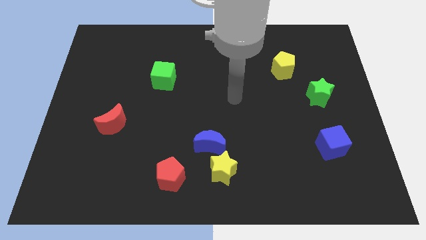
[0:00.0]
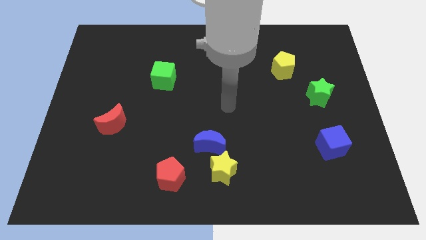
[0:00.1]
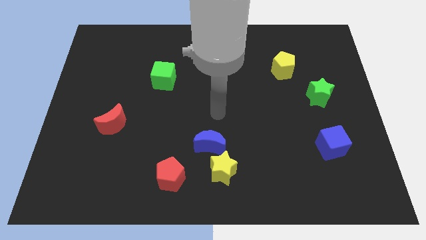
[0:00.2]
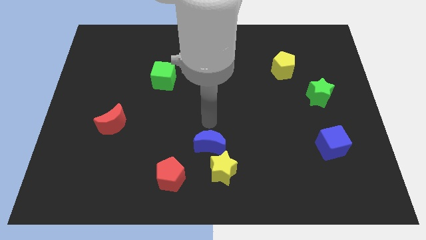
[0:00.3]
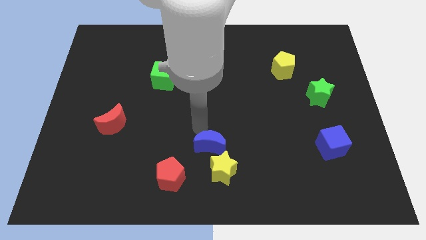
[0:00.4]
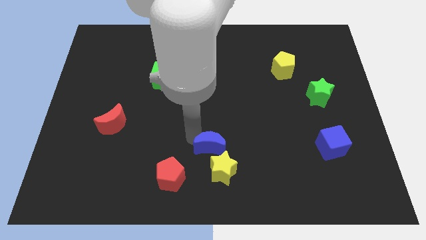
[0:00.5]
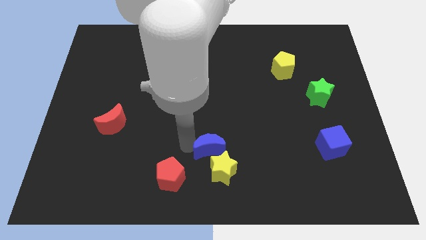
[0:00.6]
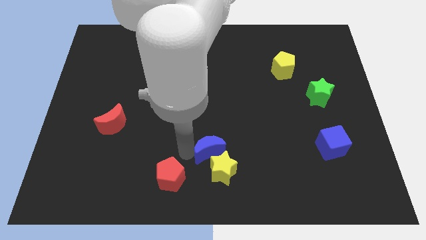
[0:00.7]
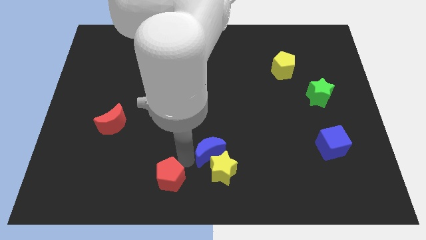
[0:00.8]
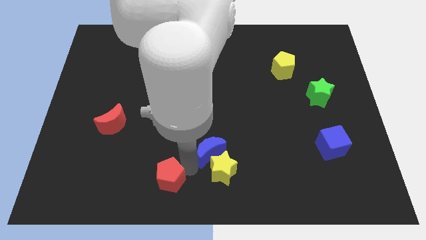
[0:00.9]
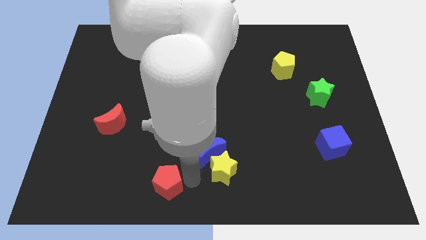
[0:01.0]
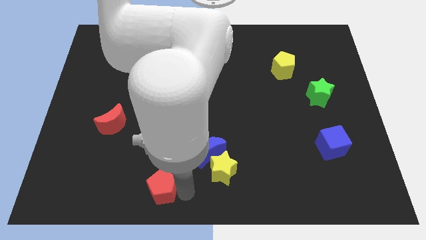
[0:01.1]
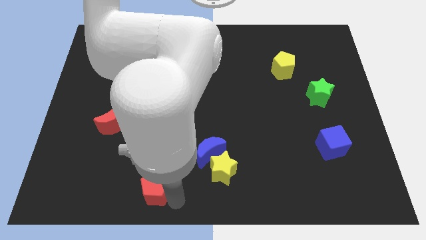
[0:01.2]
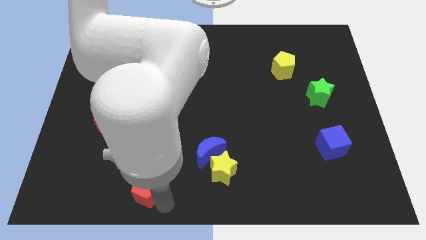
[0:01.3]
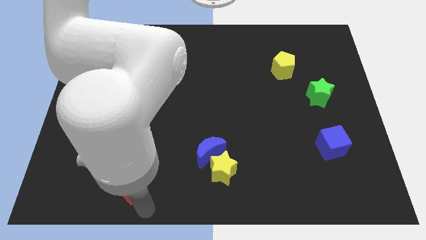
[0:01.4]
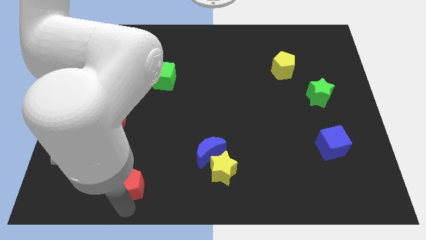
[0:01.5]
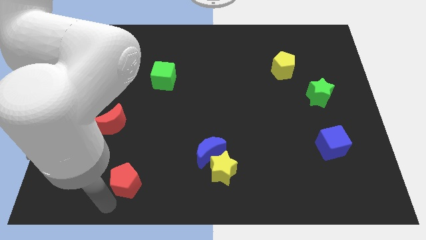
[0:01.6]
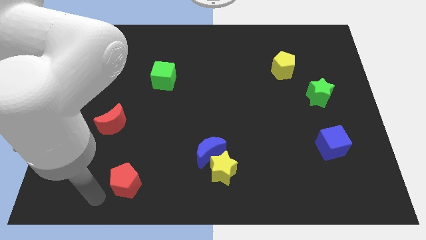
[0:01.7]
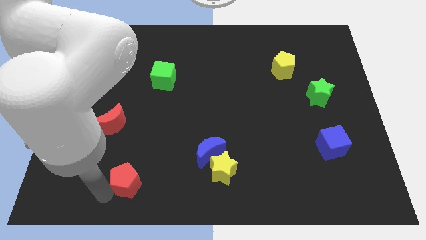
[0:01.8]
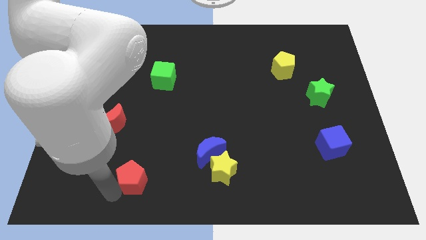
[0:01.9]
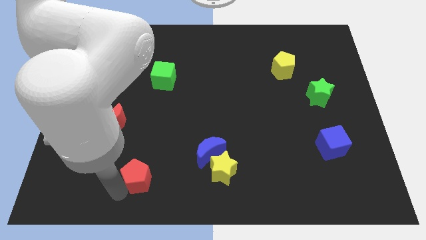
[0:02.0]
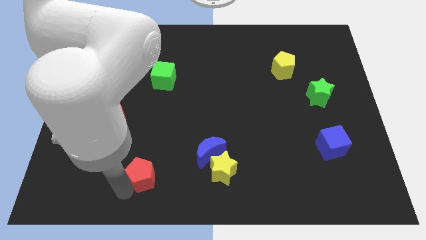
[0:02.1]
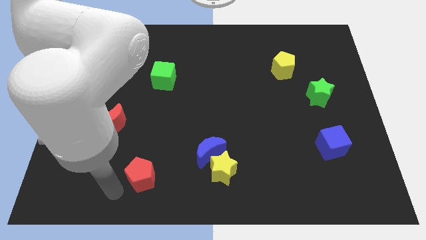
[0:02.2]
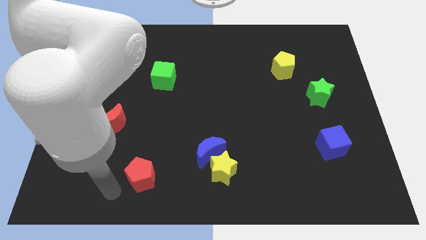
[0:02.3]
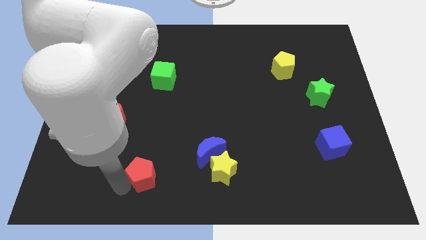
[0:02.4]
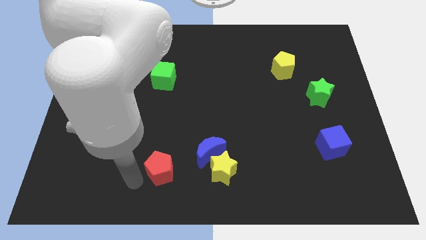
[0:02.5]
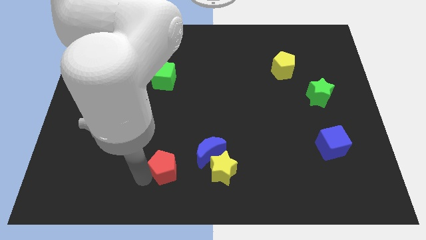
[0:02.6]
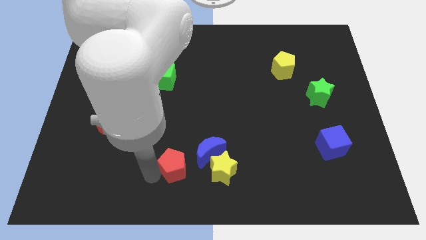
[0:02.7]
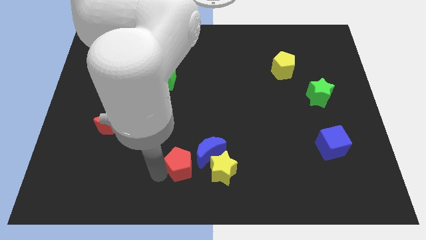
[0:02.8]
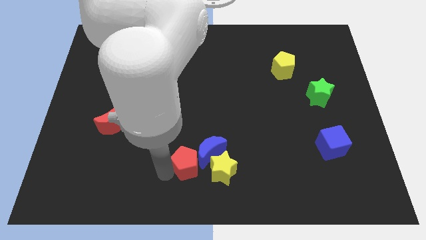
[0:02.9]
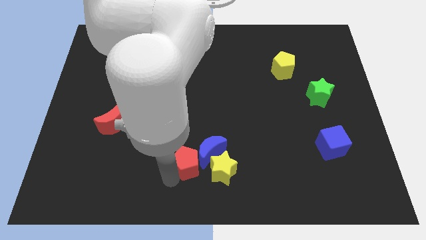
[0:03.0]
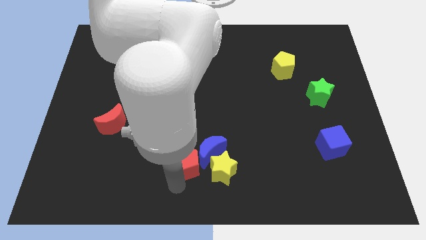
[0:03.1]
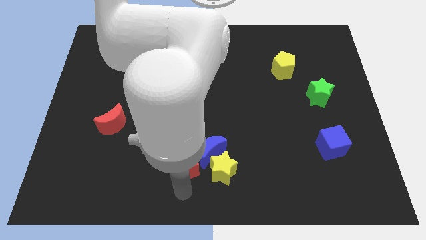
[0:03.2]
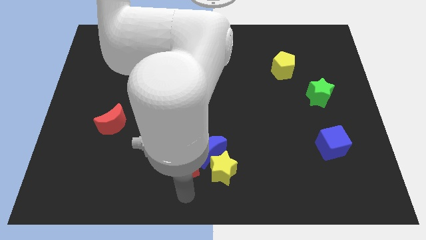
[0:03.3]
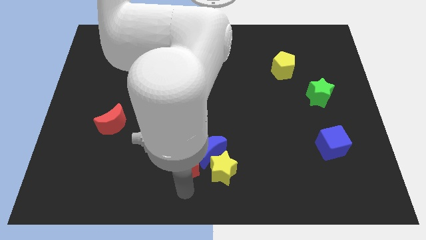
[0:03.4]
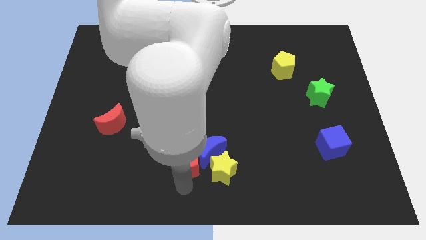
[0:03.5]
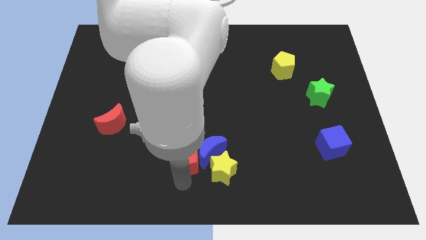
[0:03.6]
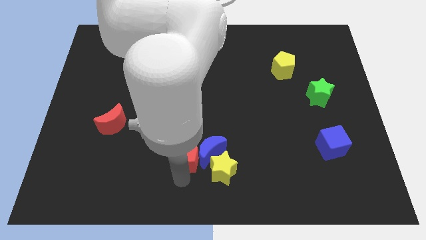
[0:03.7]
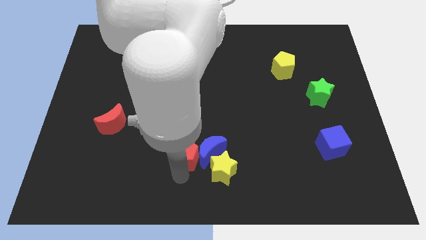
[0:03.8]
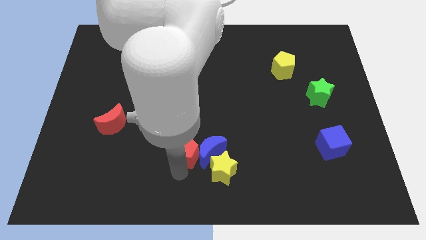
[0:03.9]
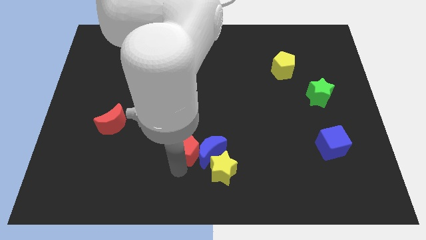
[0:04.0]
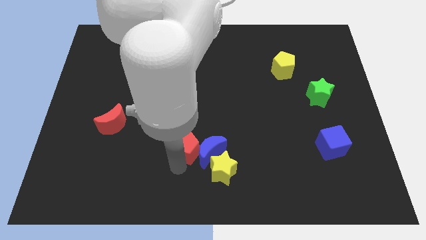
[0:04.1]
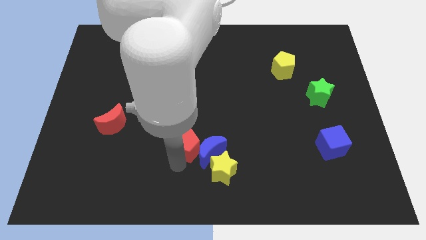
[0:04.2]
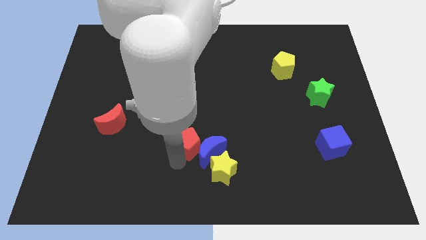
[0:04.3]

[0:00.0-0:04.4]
push the red pentagon upwards and right a little

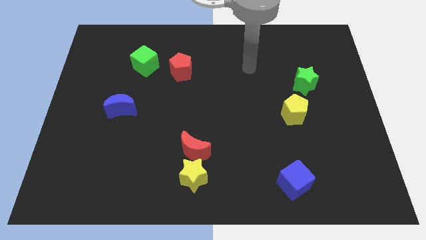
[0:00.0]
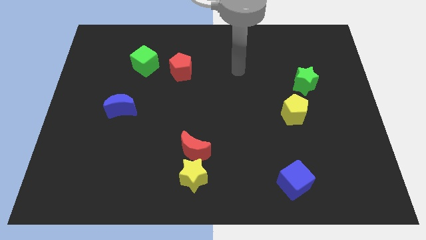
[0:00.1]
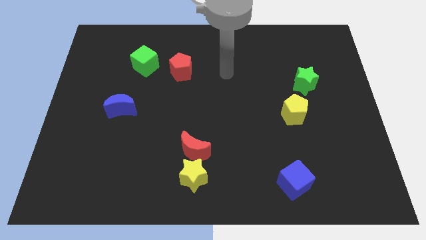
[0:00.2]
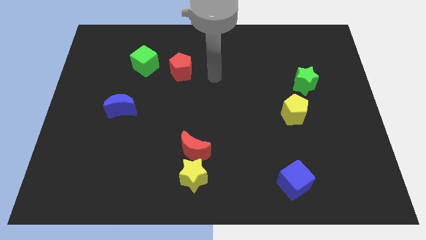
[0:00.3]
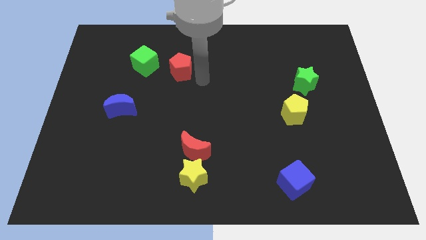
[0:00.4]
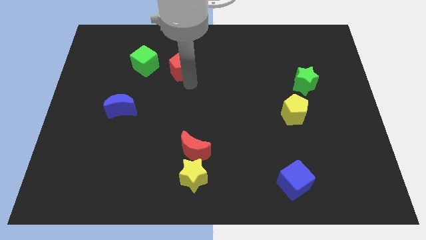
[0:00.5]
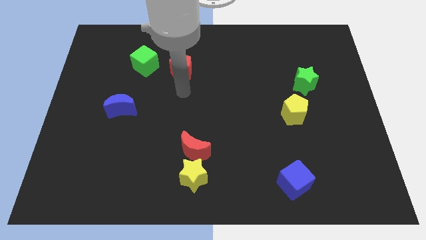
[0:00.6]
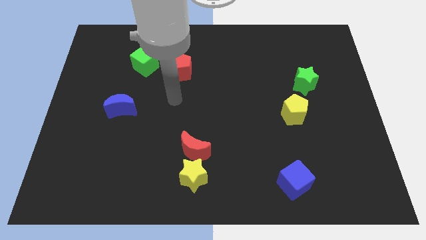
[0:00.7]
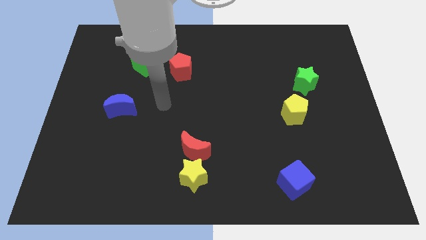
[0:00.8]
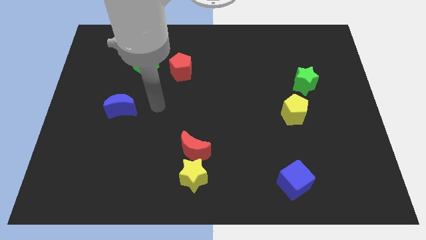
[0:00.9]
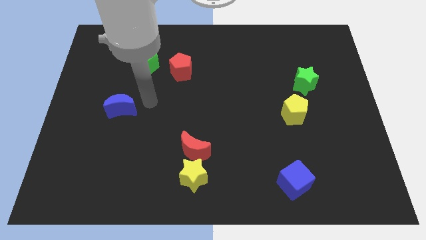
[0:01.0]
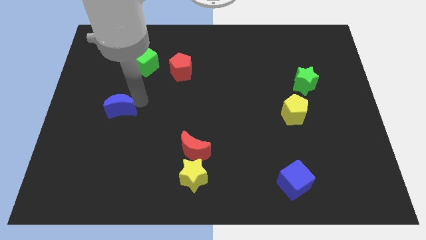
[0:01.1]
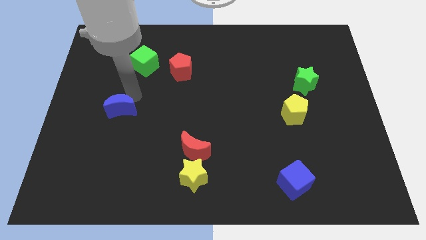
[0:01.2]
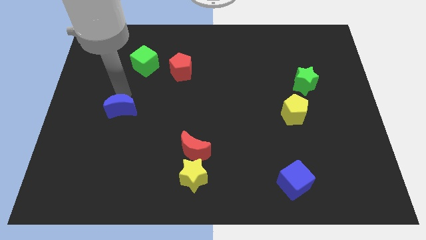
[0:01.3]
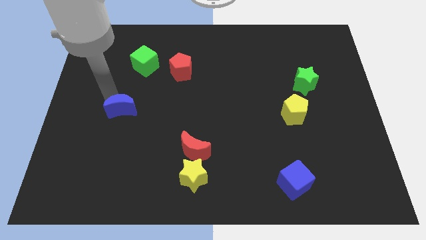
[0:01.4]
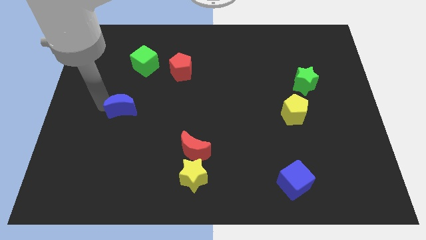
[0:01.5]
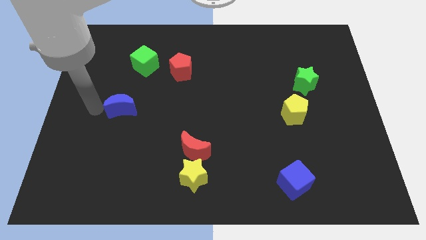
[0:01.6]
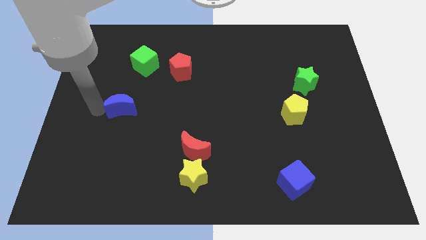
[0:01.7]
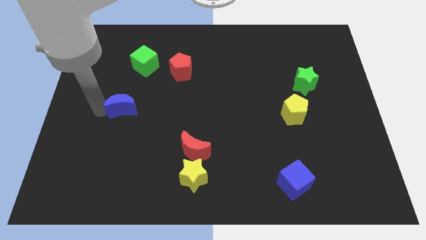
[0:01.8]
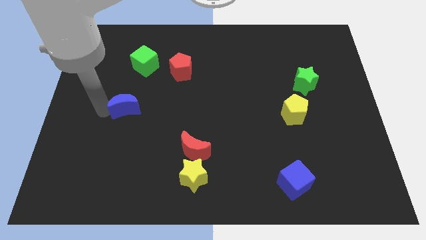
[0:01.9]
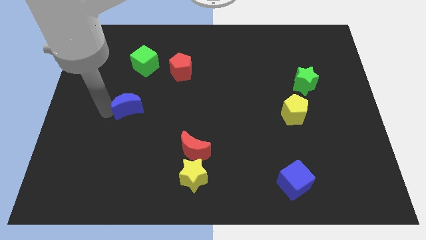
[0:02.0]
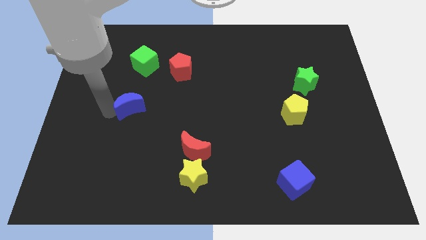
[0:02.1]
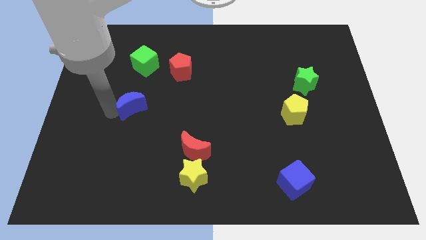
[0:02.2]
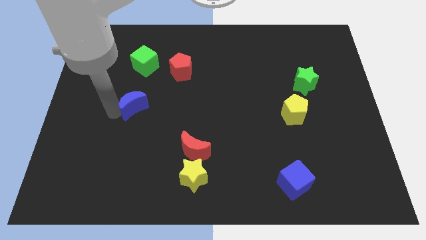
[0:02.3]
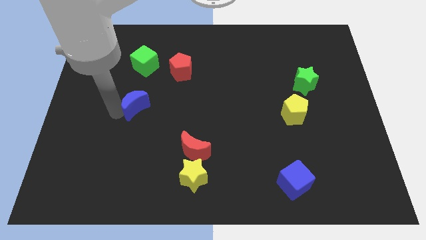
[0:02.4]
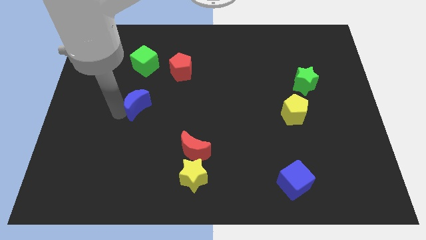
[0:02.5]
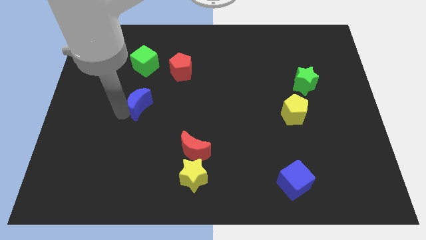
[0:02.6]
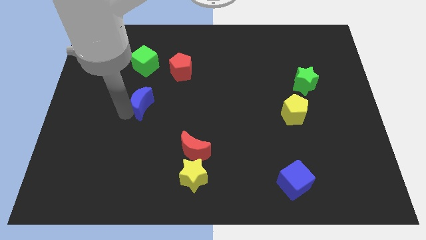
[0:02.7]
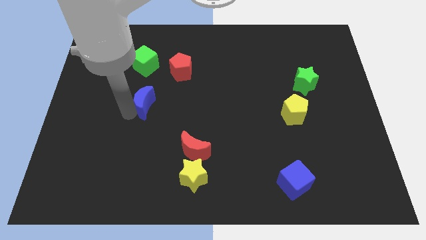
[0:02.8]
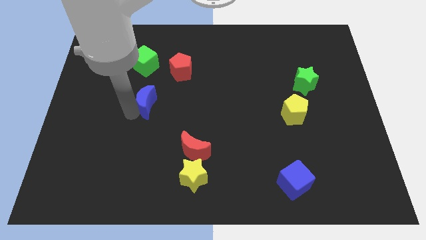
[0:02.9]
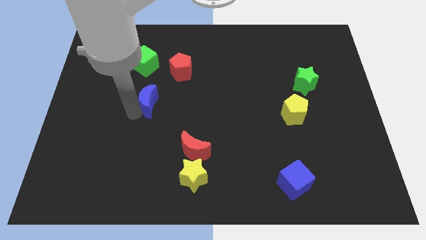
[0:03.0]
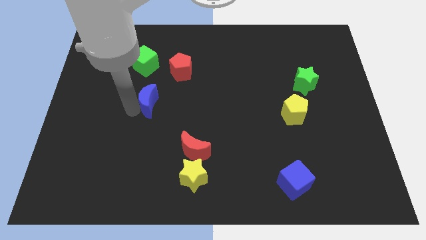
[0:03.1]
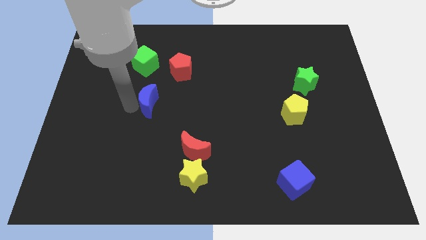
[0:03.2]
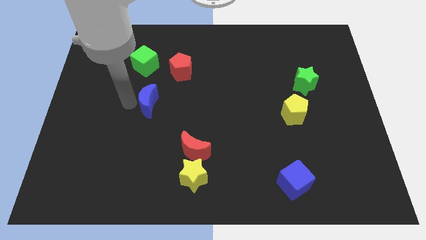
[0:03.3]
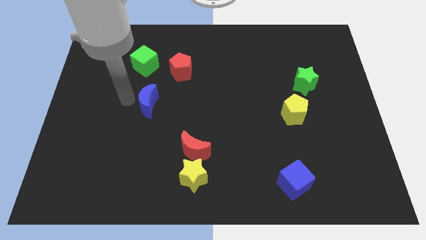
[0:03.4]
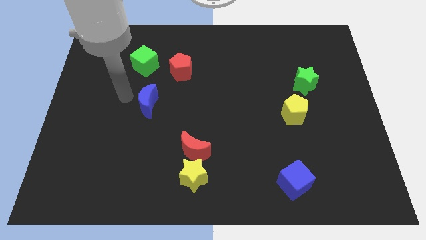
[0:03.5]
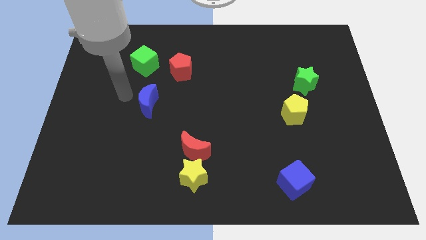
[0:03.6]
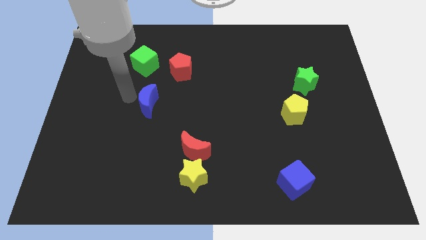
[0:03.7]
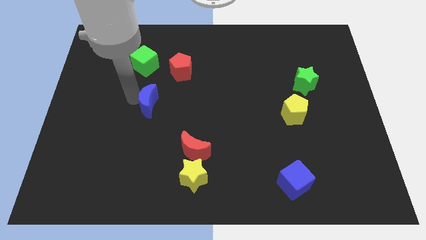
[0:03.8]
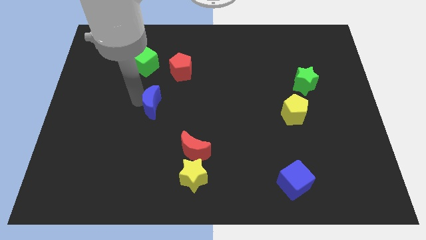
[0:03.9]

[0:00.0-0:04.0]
move the blue moon somewhat to the right
